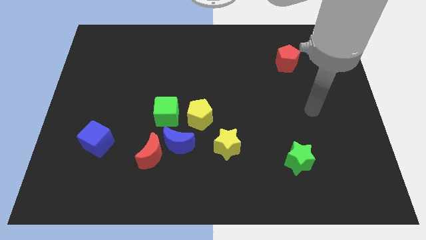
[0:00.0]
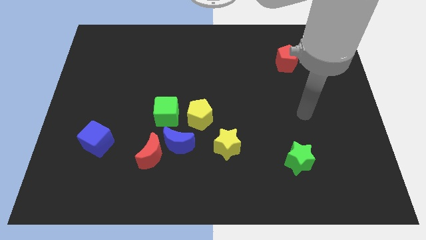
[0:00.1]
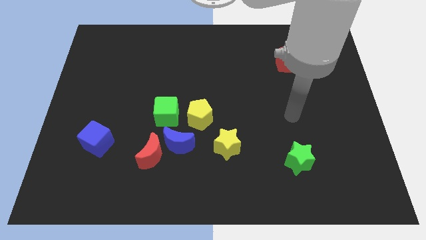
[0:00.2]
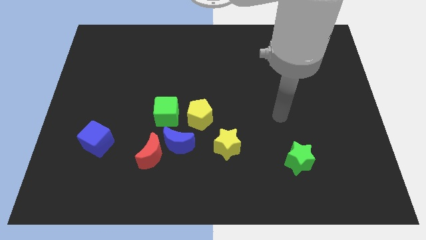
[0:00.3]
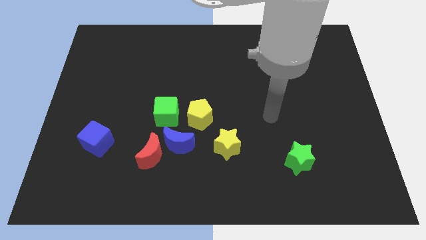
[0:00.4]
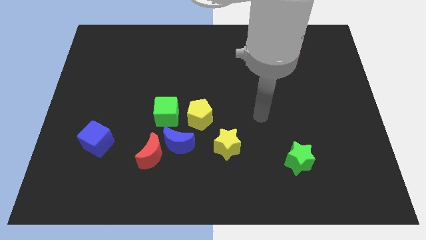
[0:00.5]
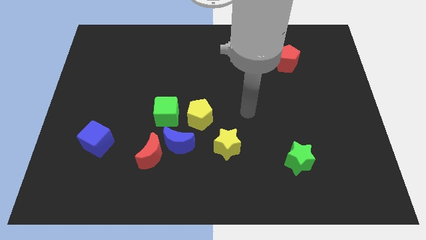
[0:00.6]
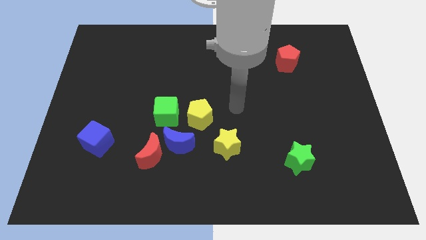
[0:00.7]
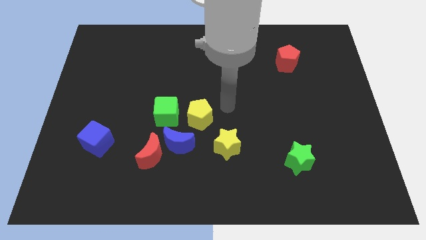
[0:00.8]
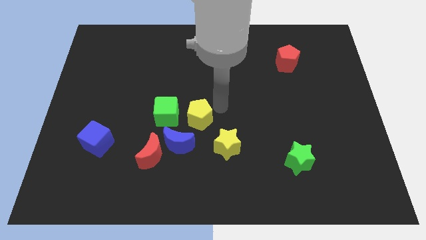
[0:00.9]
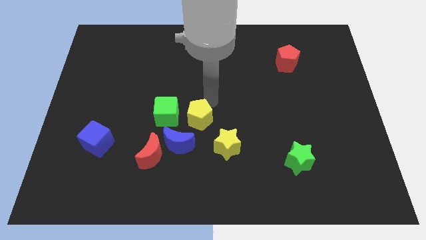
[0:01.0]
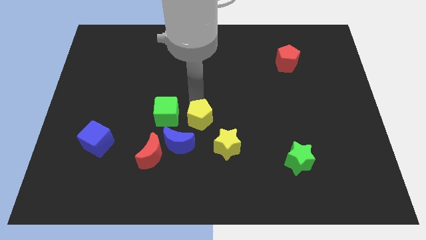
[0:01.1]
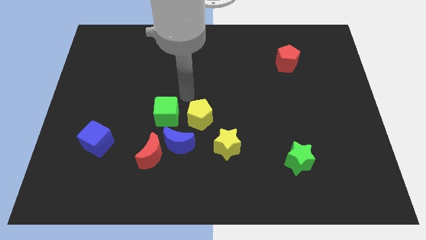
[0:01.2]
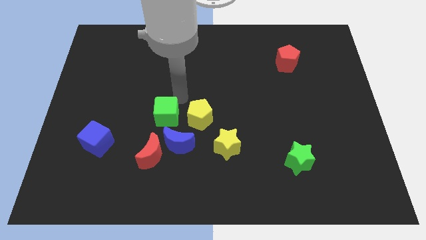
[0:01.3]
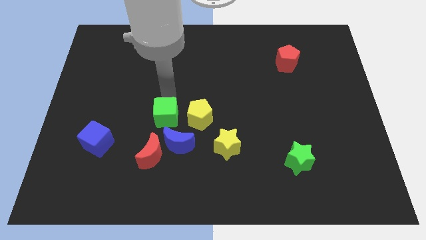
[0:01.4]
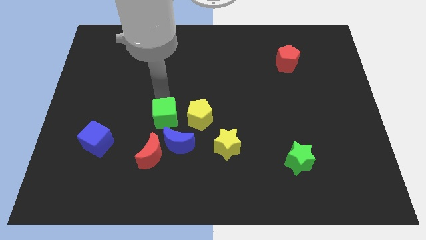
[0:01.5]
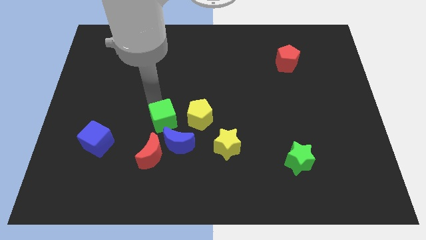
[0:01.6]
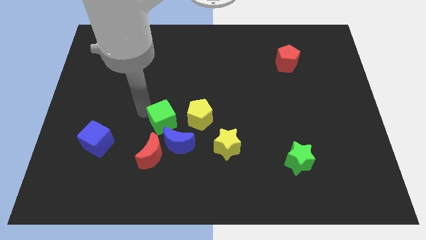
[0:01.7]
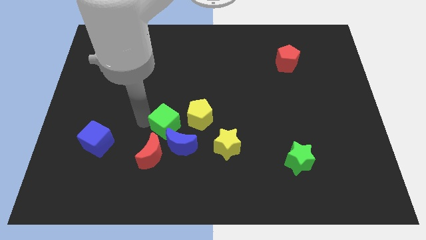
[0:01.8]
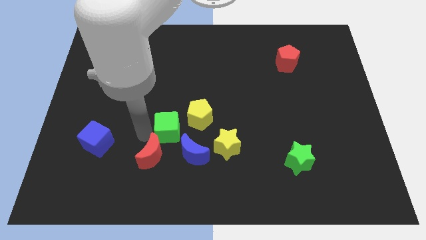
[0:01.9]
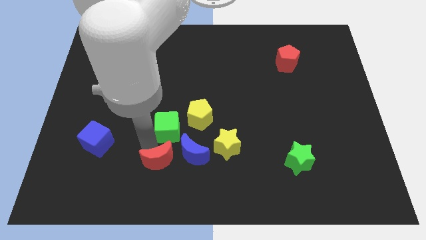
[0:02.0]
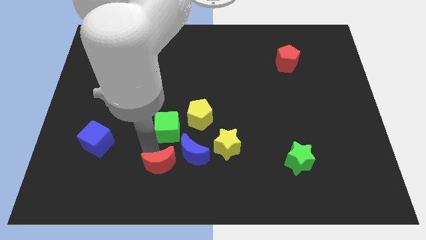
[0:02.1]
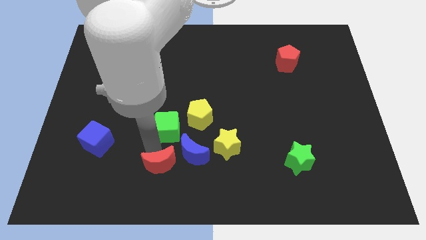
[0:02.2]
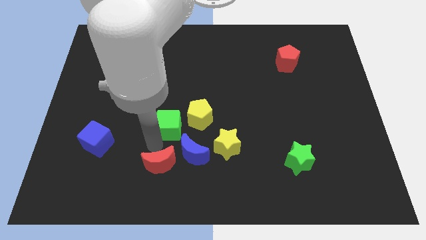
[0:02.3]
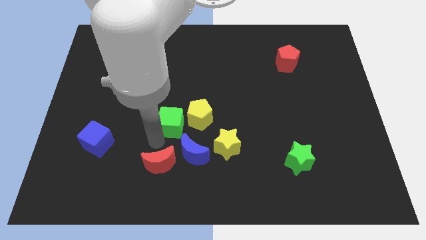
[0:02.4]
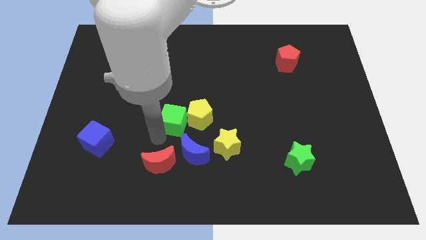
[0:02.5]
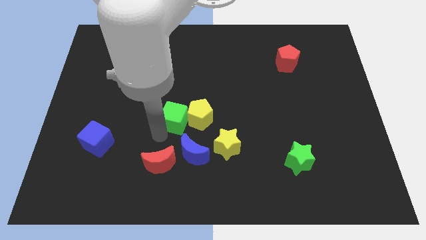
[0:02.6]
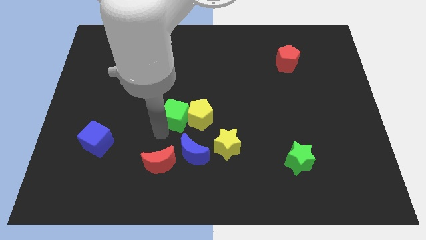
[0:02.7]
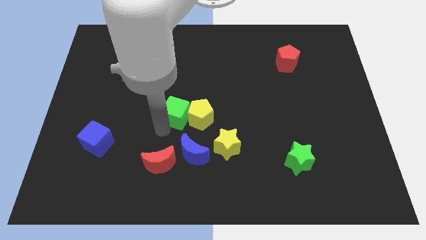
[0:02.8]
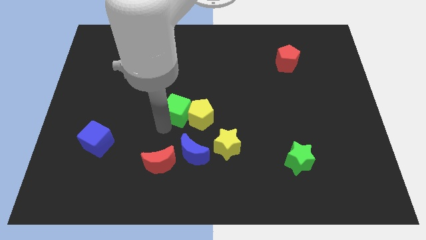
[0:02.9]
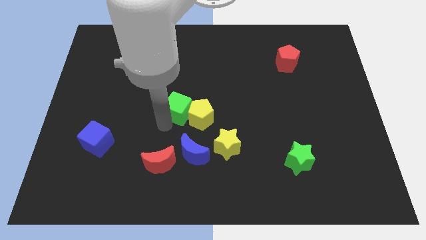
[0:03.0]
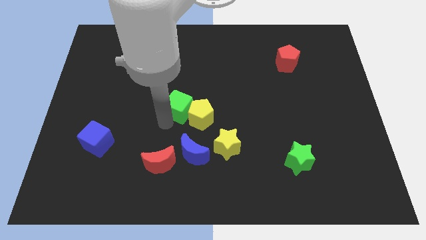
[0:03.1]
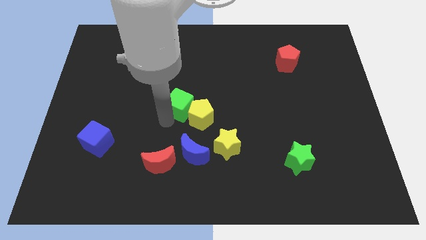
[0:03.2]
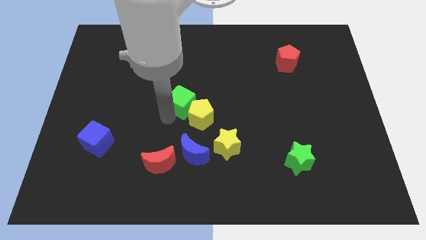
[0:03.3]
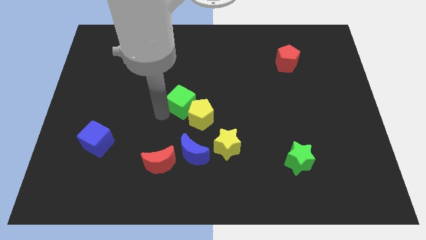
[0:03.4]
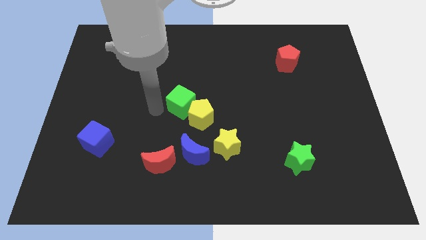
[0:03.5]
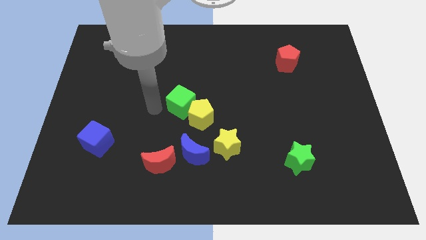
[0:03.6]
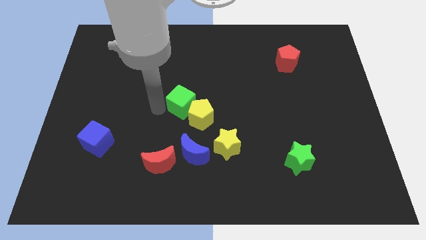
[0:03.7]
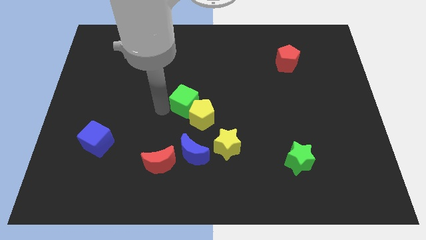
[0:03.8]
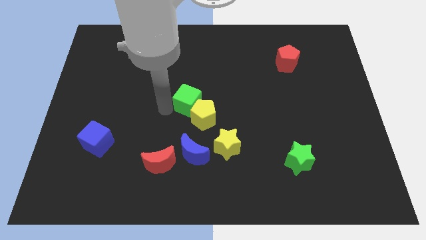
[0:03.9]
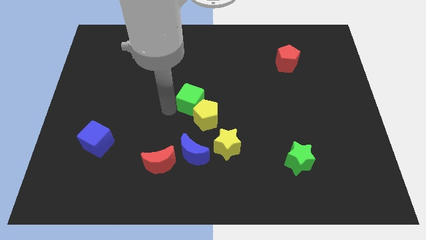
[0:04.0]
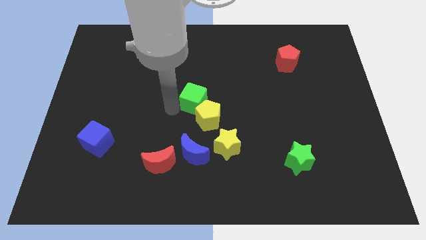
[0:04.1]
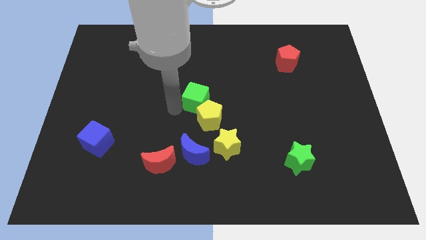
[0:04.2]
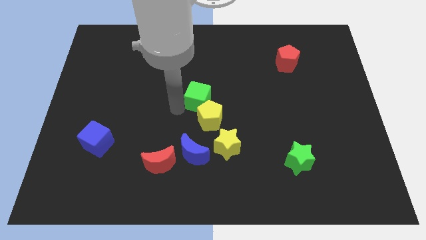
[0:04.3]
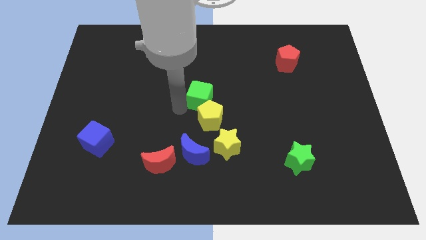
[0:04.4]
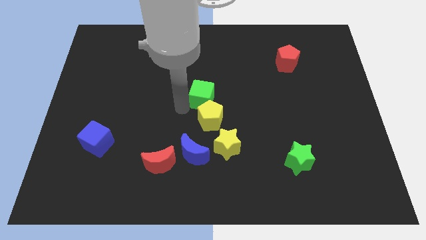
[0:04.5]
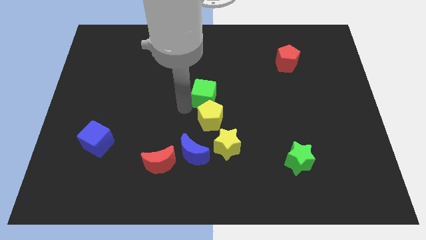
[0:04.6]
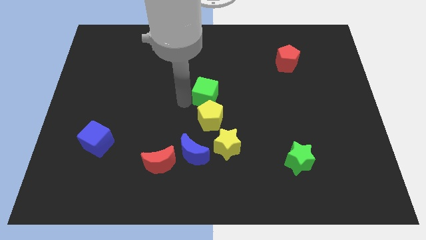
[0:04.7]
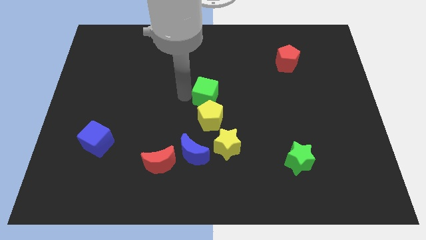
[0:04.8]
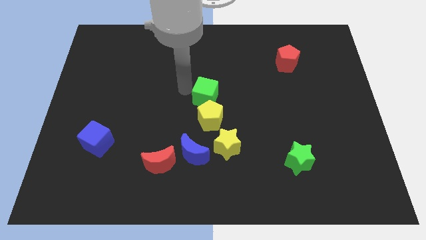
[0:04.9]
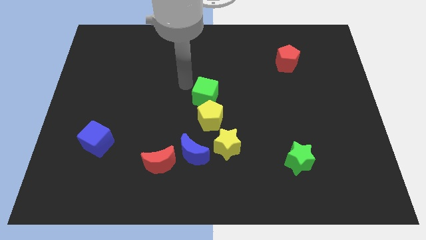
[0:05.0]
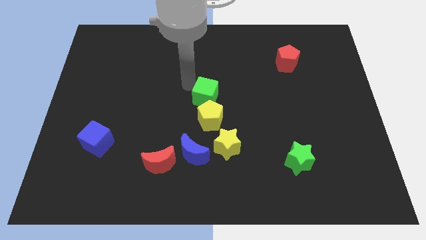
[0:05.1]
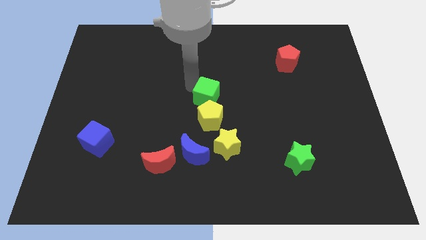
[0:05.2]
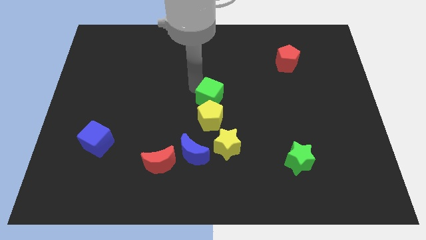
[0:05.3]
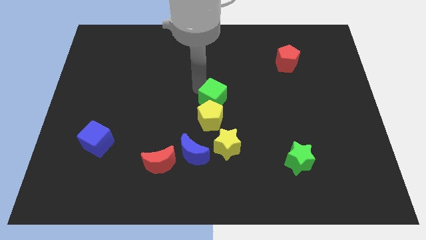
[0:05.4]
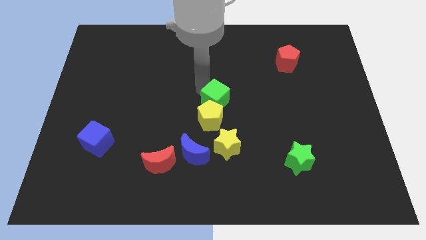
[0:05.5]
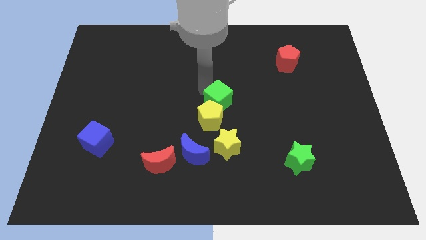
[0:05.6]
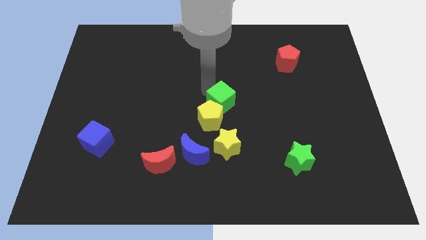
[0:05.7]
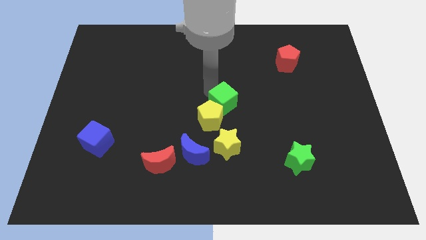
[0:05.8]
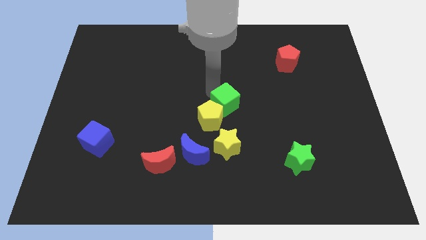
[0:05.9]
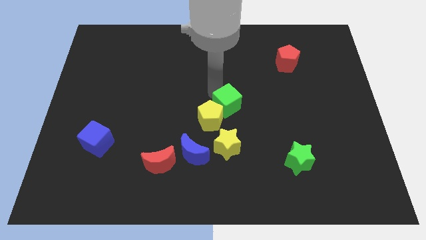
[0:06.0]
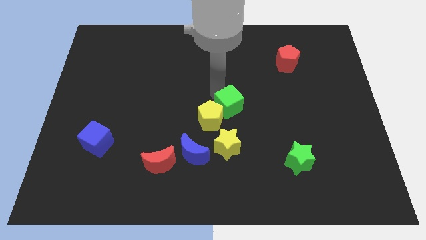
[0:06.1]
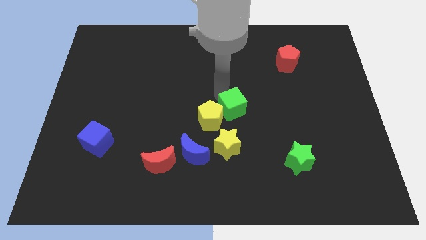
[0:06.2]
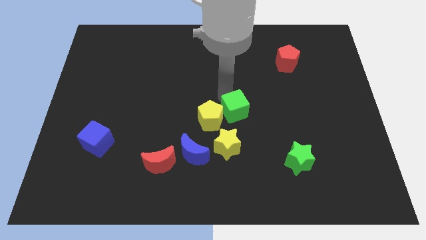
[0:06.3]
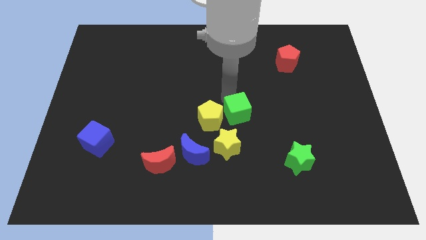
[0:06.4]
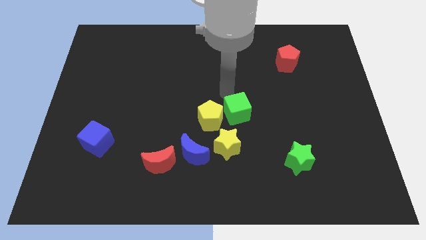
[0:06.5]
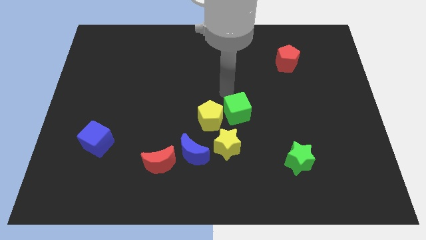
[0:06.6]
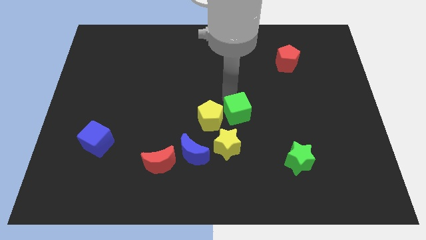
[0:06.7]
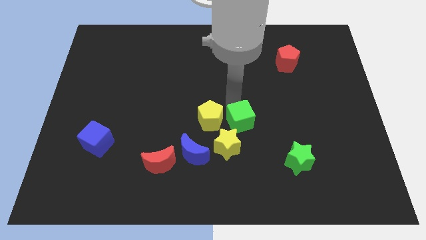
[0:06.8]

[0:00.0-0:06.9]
push the green cube a little down and right diagonally

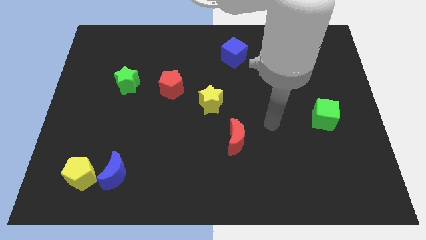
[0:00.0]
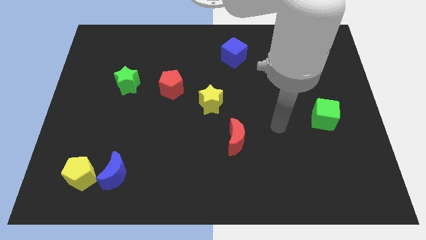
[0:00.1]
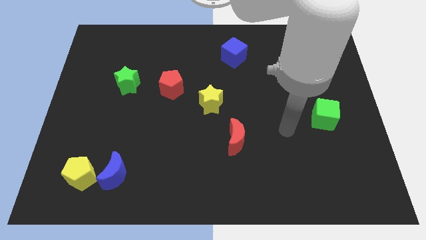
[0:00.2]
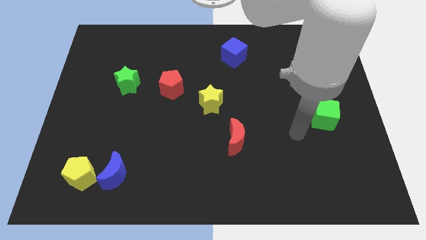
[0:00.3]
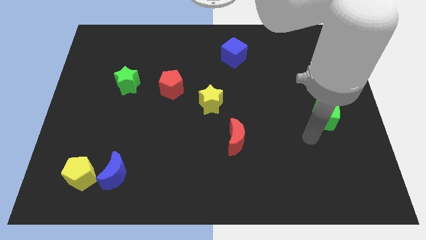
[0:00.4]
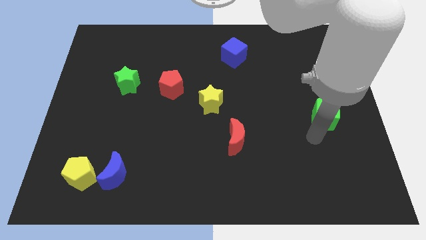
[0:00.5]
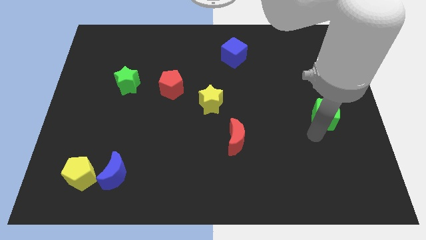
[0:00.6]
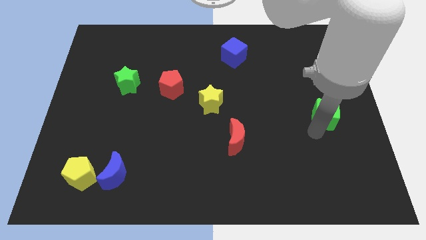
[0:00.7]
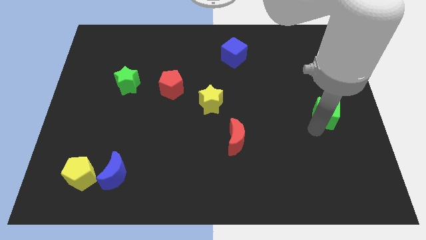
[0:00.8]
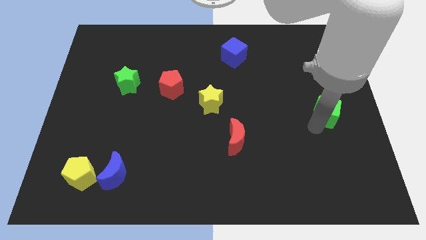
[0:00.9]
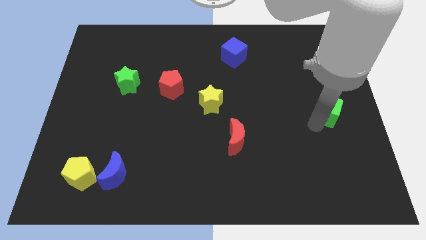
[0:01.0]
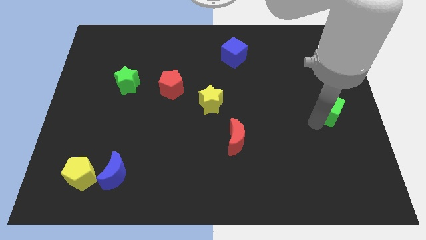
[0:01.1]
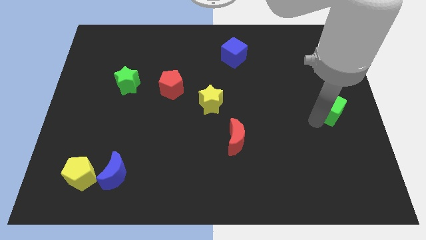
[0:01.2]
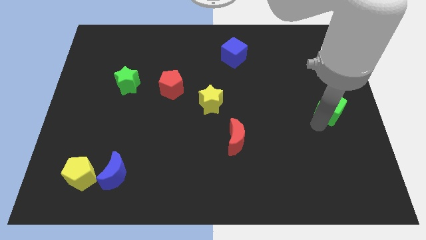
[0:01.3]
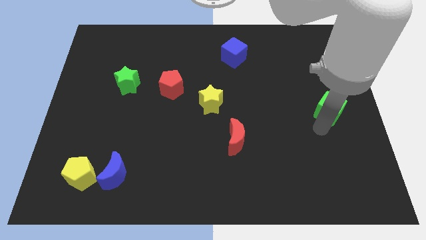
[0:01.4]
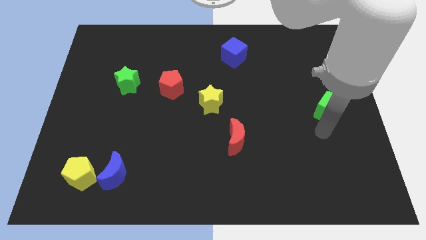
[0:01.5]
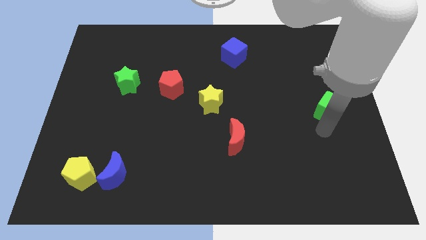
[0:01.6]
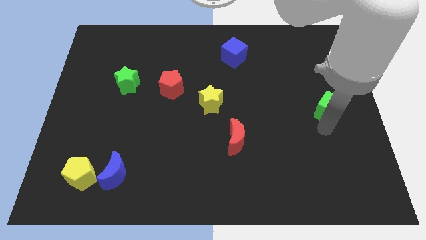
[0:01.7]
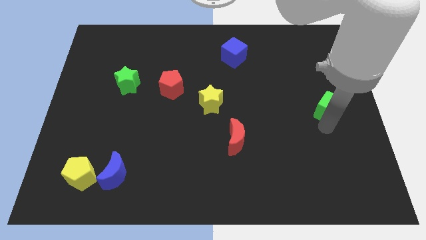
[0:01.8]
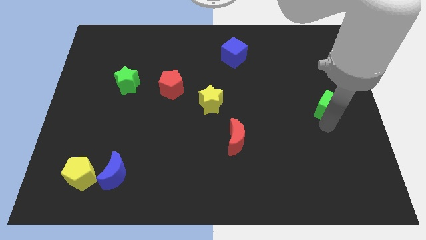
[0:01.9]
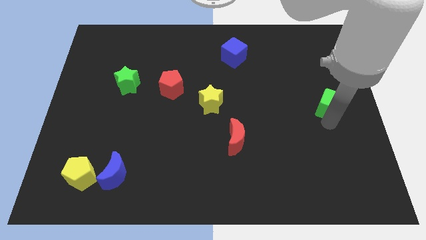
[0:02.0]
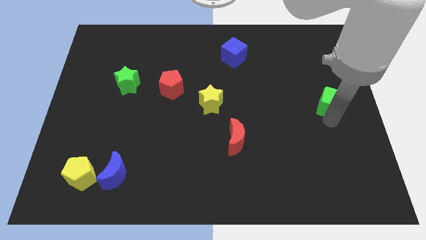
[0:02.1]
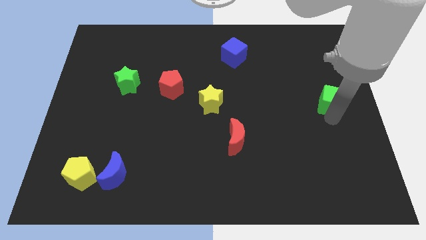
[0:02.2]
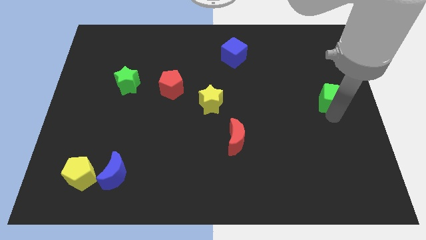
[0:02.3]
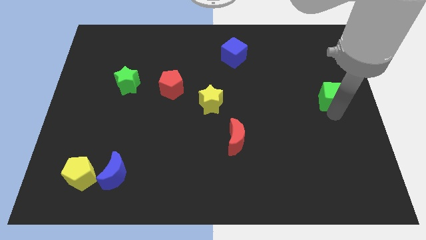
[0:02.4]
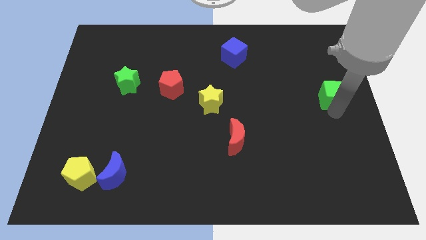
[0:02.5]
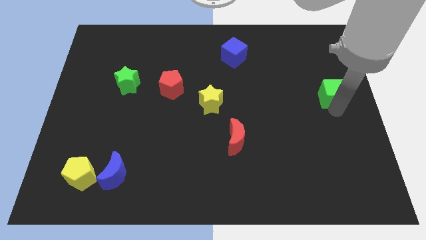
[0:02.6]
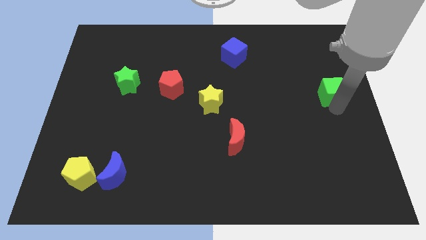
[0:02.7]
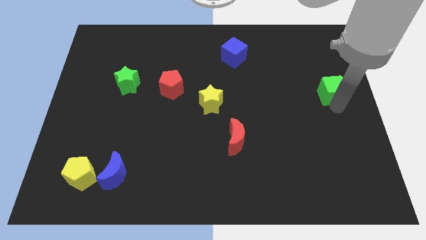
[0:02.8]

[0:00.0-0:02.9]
move the green cube a little bit upwards
